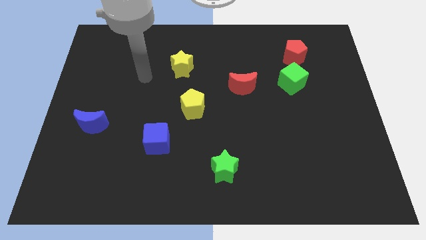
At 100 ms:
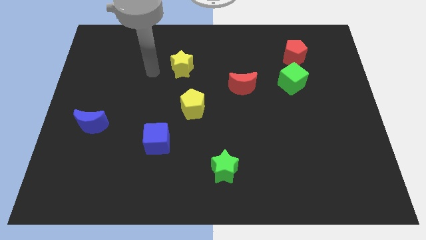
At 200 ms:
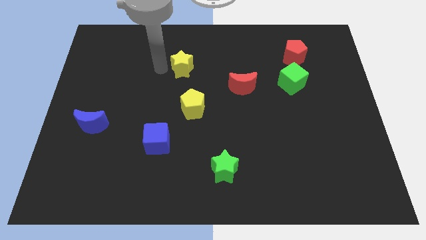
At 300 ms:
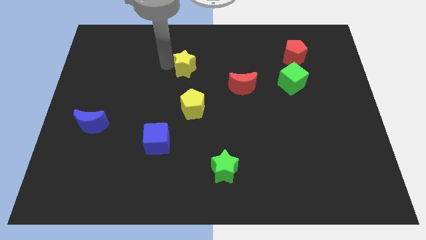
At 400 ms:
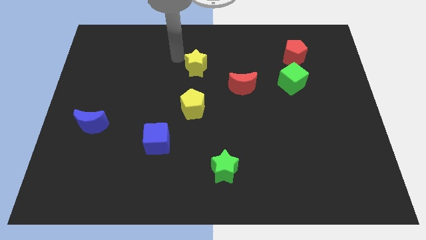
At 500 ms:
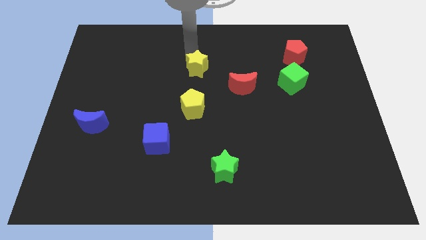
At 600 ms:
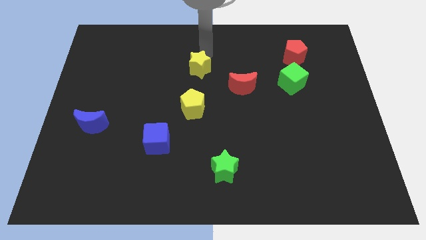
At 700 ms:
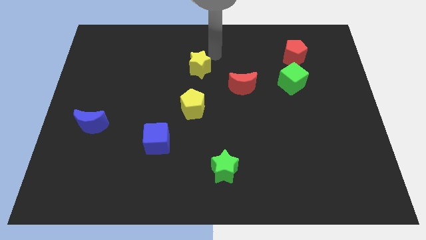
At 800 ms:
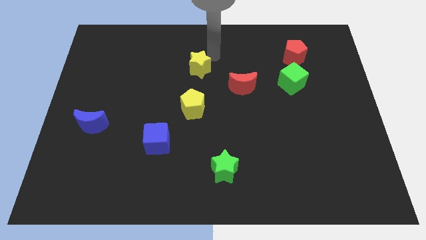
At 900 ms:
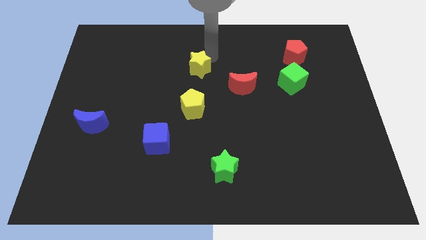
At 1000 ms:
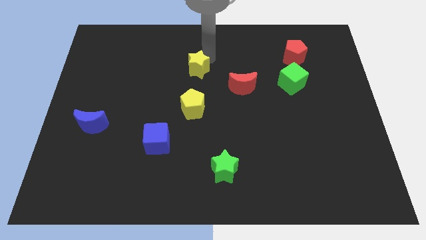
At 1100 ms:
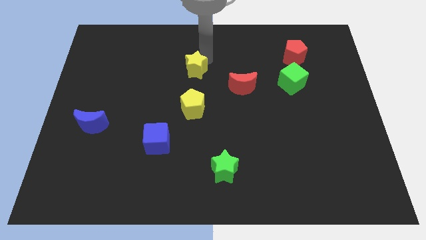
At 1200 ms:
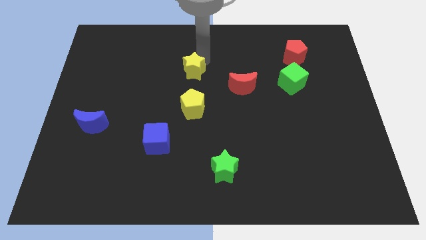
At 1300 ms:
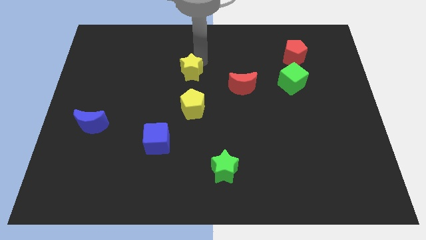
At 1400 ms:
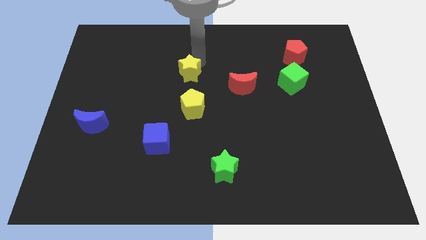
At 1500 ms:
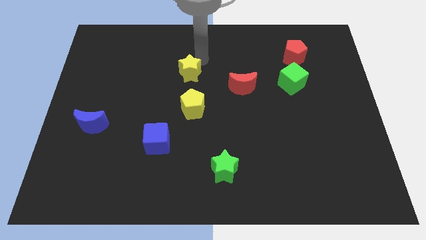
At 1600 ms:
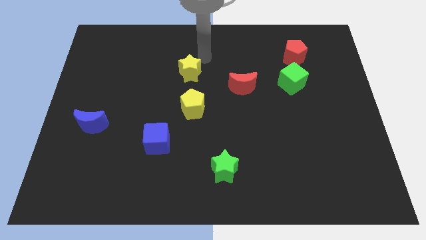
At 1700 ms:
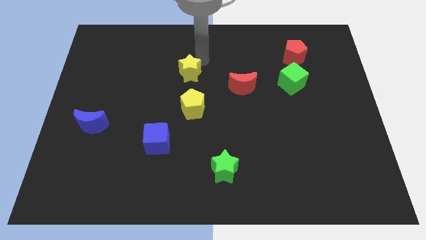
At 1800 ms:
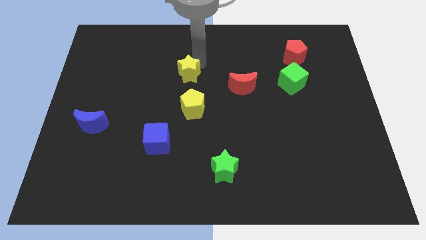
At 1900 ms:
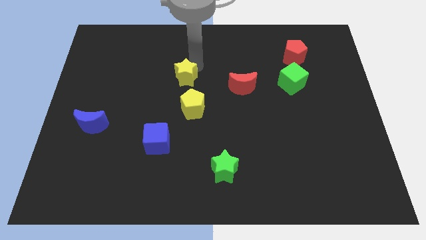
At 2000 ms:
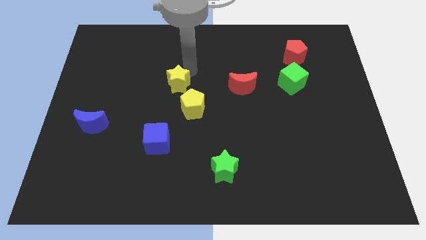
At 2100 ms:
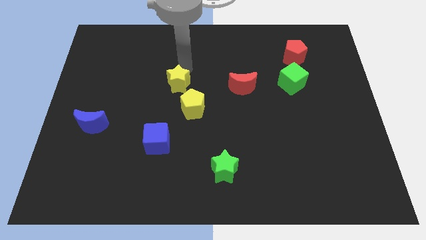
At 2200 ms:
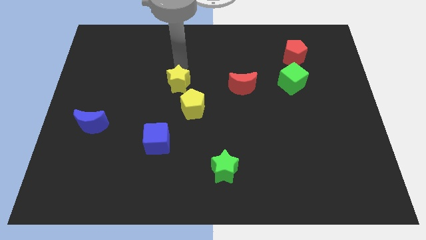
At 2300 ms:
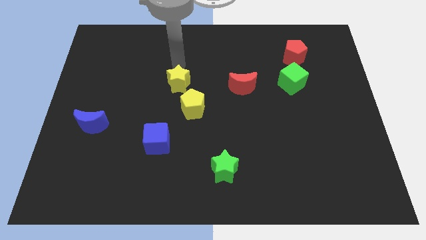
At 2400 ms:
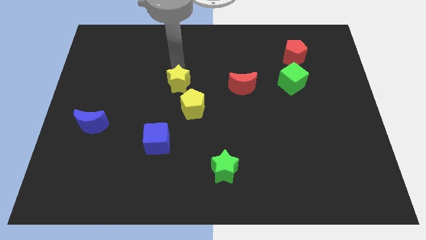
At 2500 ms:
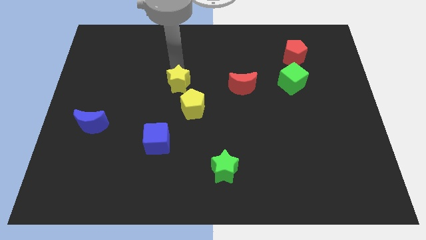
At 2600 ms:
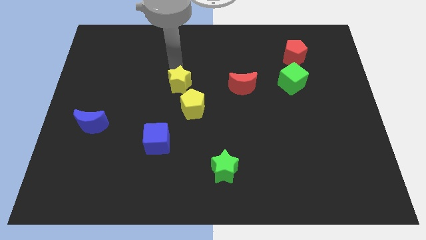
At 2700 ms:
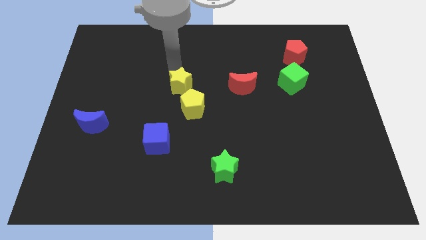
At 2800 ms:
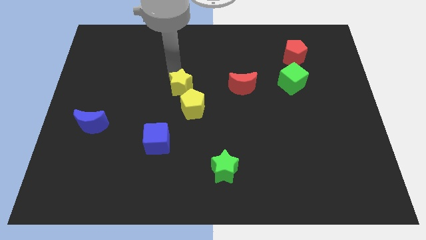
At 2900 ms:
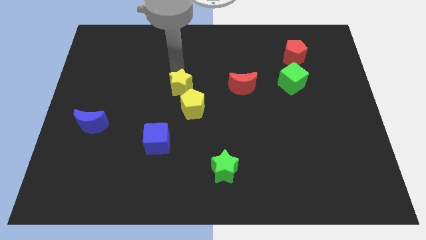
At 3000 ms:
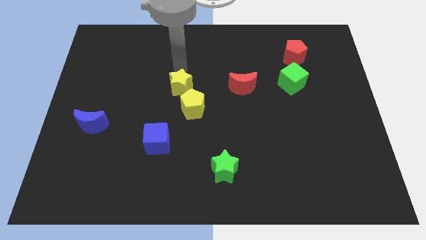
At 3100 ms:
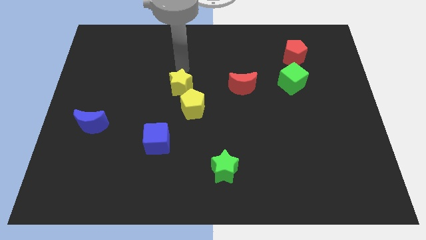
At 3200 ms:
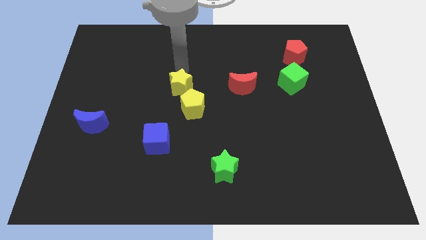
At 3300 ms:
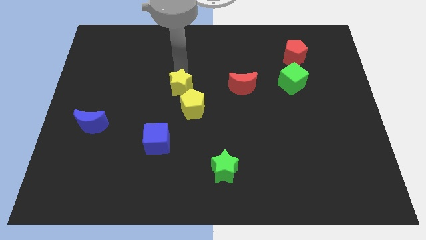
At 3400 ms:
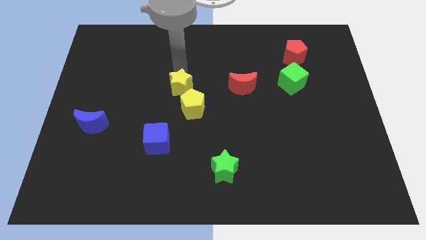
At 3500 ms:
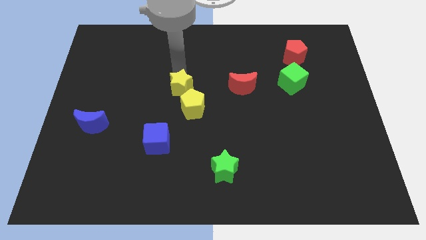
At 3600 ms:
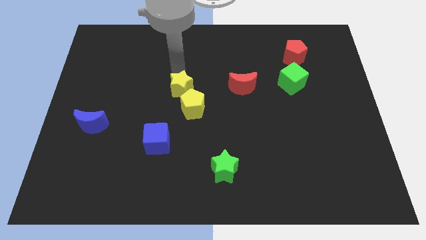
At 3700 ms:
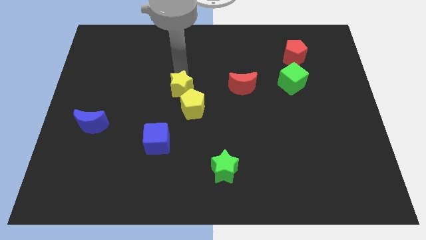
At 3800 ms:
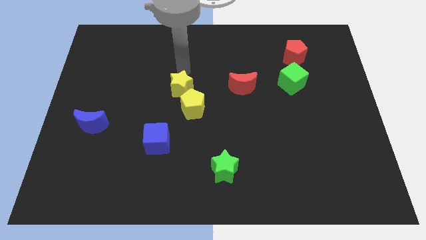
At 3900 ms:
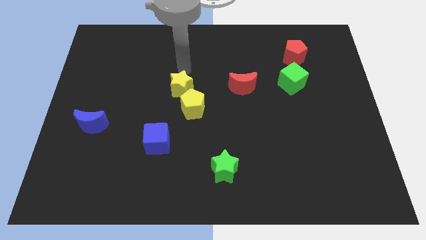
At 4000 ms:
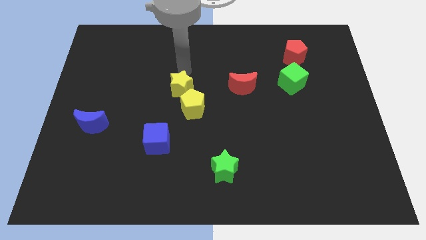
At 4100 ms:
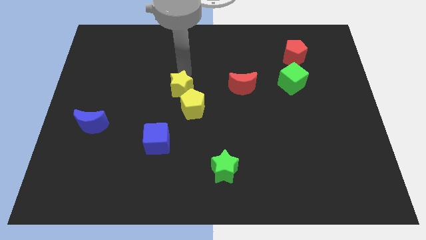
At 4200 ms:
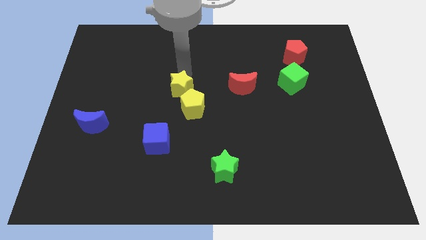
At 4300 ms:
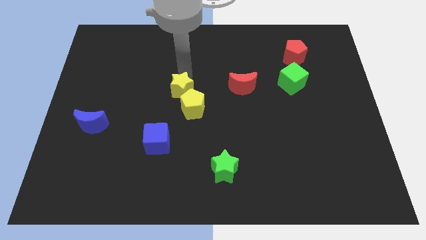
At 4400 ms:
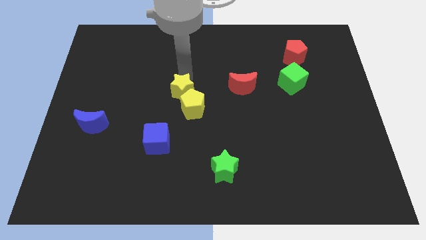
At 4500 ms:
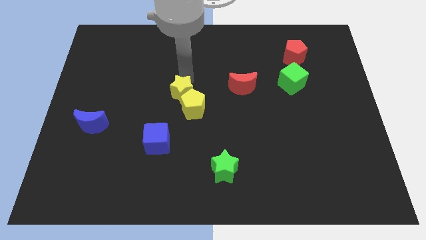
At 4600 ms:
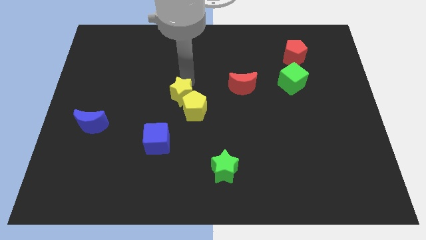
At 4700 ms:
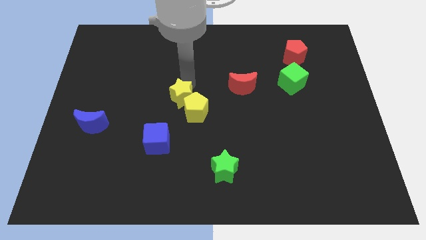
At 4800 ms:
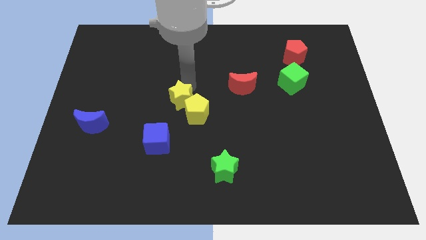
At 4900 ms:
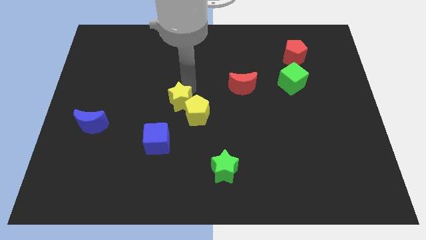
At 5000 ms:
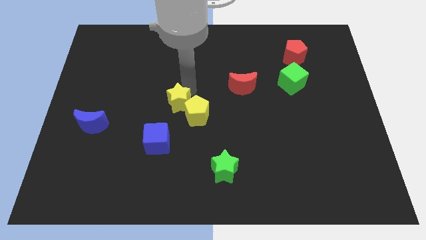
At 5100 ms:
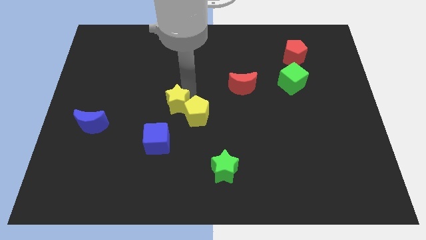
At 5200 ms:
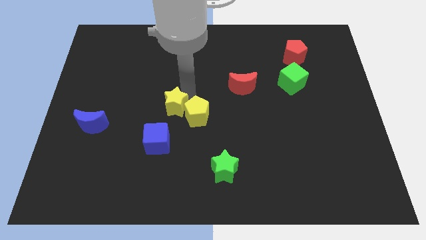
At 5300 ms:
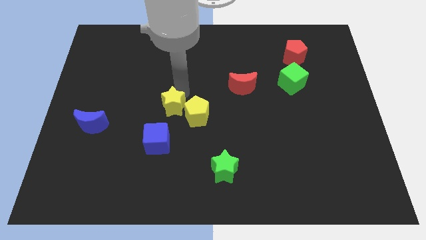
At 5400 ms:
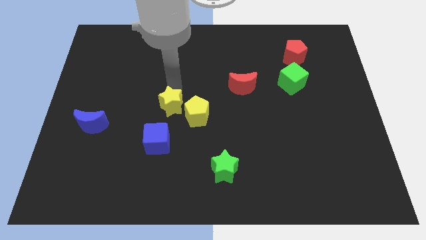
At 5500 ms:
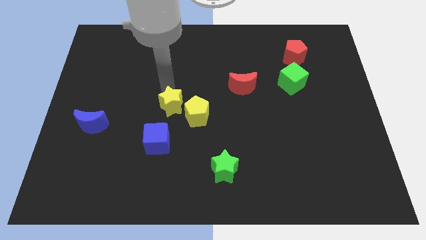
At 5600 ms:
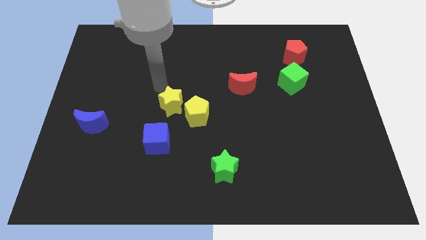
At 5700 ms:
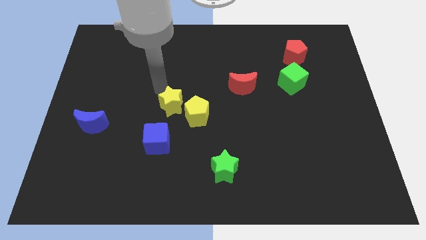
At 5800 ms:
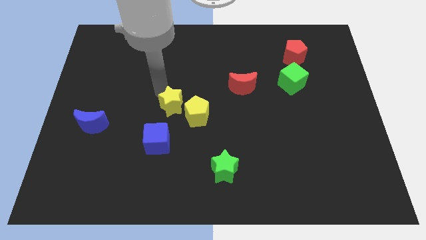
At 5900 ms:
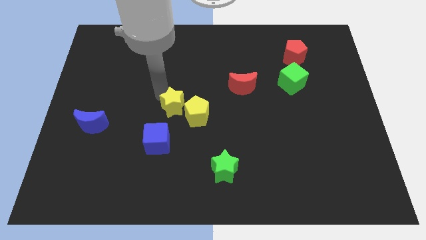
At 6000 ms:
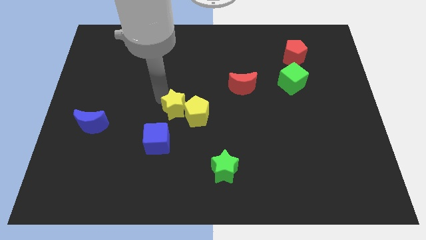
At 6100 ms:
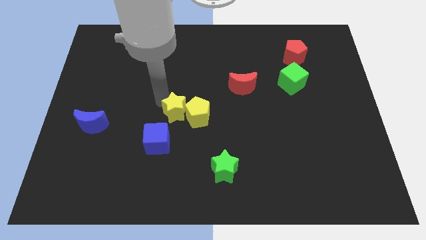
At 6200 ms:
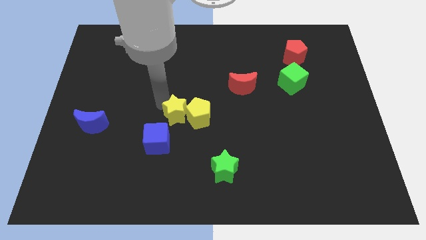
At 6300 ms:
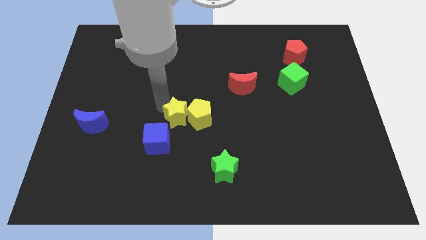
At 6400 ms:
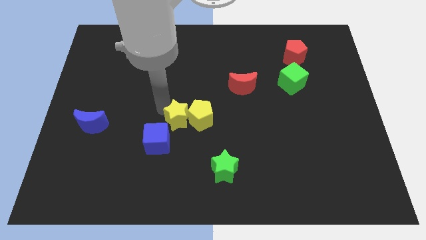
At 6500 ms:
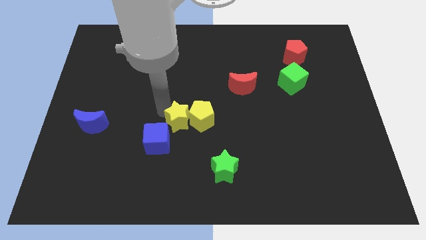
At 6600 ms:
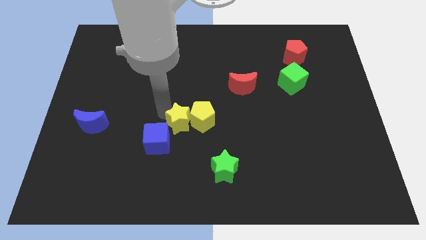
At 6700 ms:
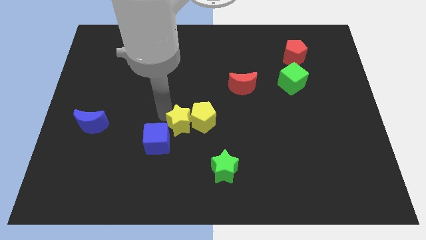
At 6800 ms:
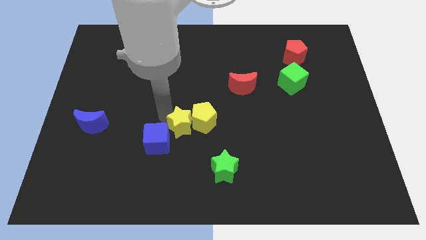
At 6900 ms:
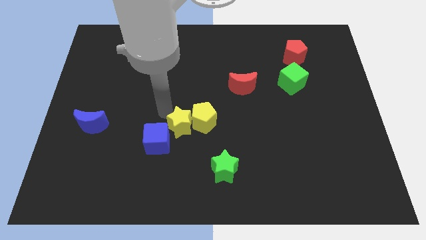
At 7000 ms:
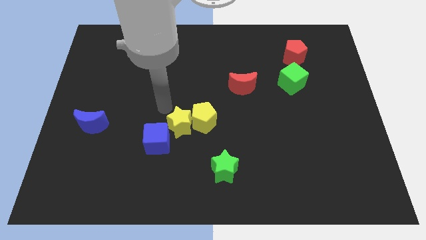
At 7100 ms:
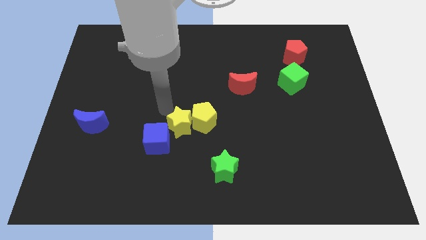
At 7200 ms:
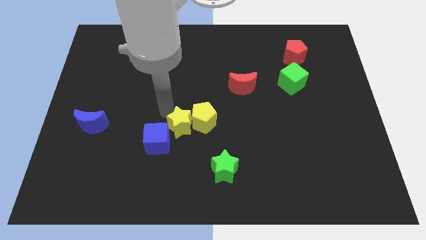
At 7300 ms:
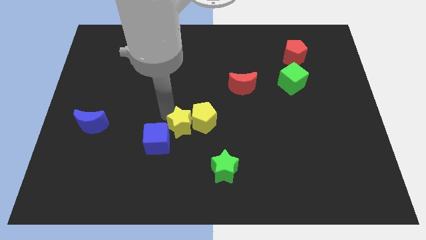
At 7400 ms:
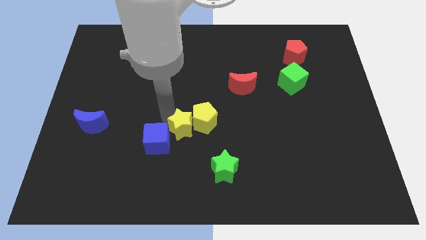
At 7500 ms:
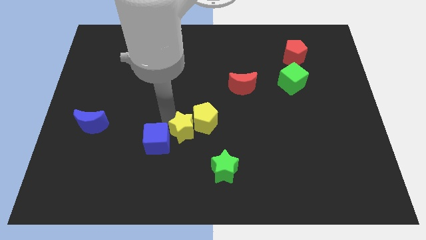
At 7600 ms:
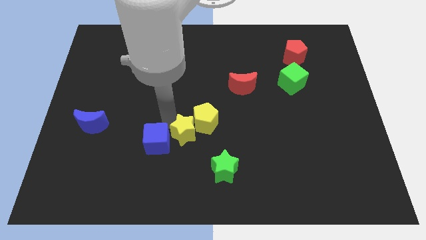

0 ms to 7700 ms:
push the yellow star diagonally up and to the left of the green star
